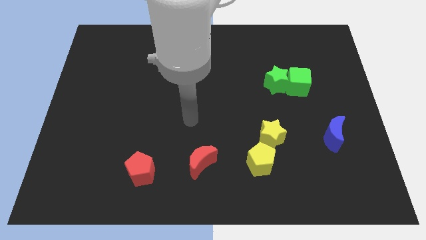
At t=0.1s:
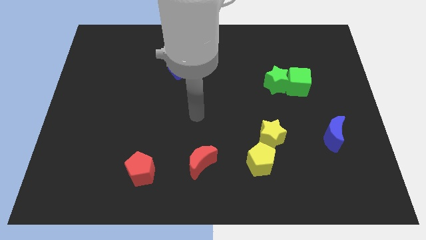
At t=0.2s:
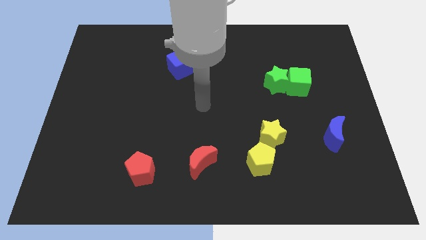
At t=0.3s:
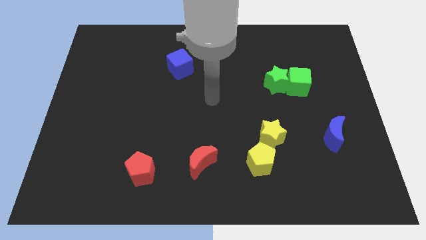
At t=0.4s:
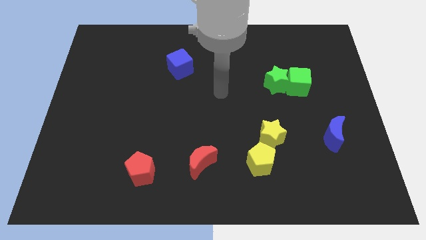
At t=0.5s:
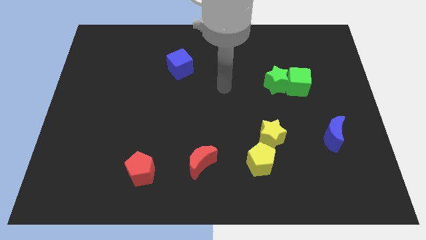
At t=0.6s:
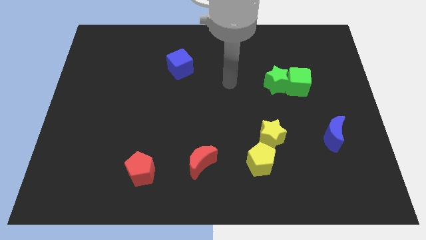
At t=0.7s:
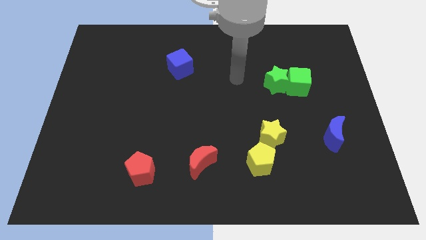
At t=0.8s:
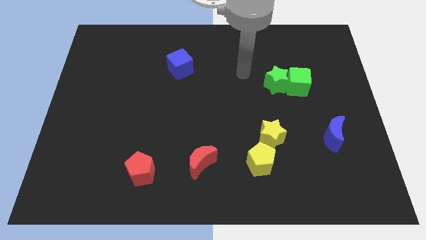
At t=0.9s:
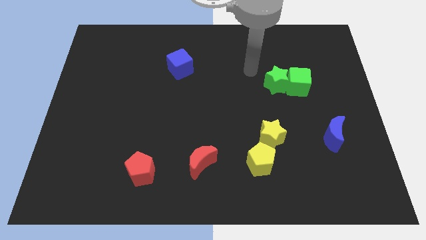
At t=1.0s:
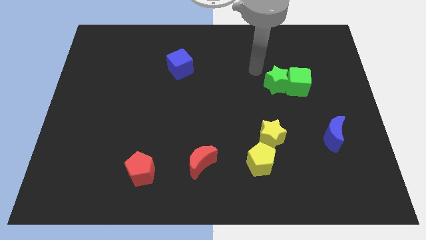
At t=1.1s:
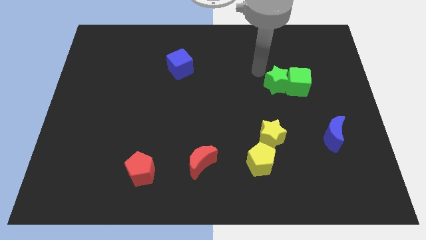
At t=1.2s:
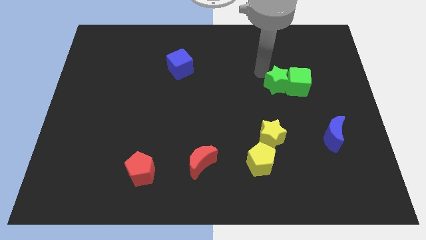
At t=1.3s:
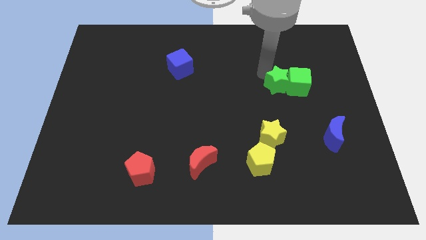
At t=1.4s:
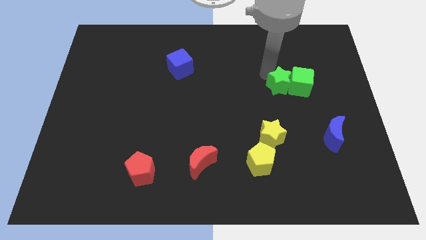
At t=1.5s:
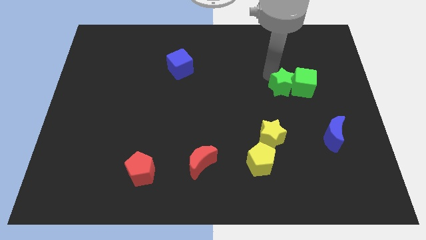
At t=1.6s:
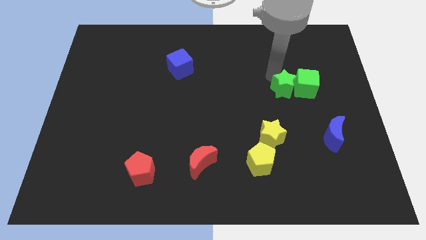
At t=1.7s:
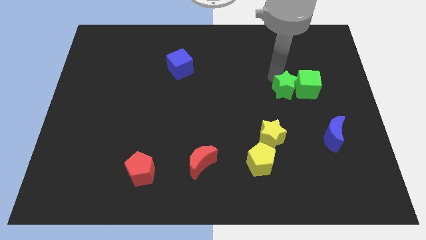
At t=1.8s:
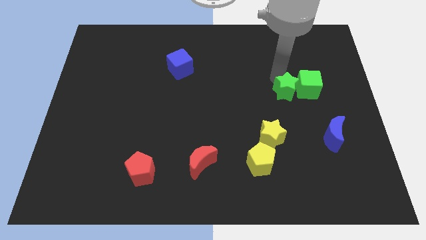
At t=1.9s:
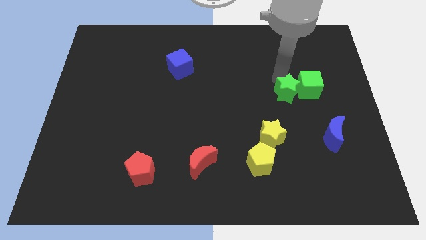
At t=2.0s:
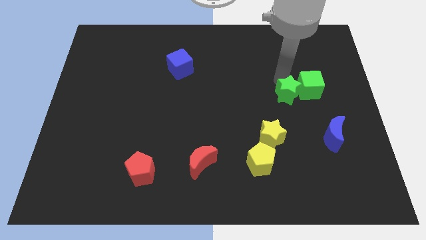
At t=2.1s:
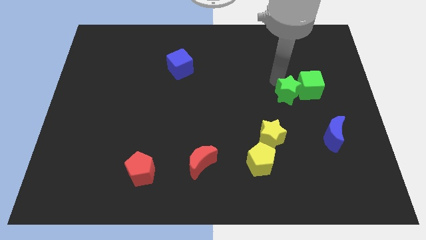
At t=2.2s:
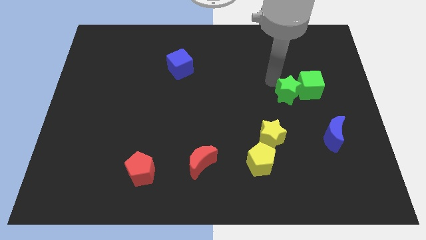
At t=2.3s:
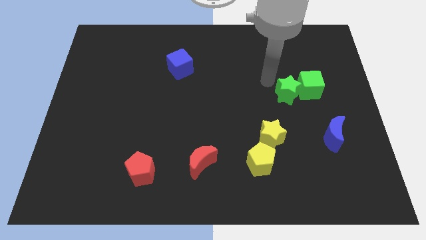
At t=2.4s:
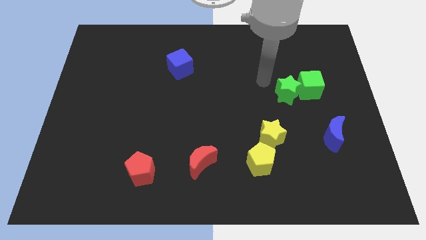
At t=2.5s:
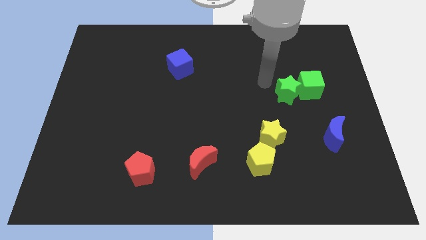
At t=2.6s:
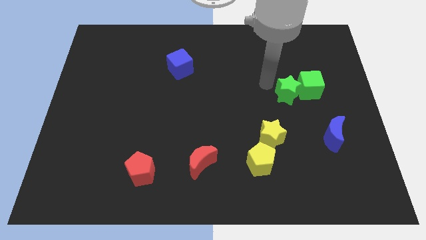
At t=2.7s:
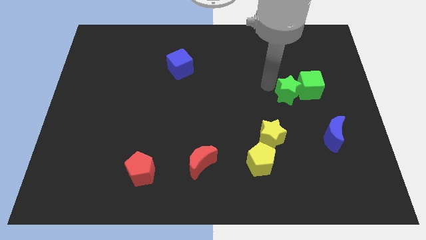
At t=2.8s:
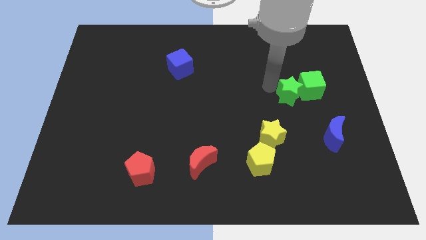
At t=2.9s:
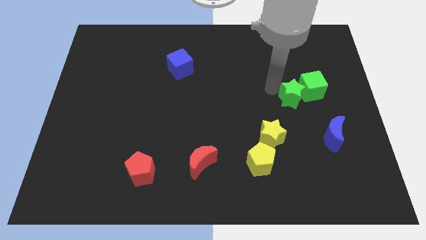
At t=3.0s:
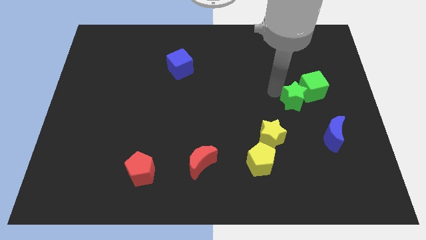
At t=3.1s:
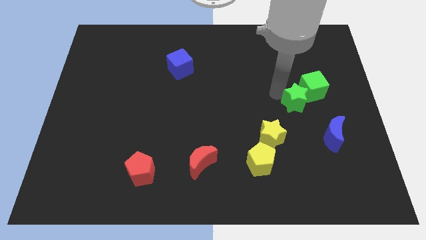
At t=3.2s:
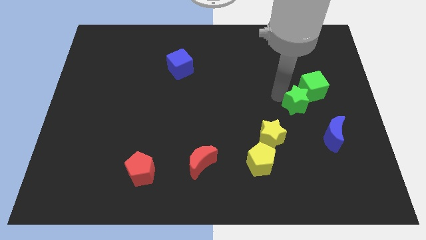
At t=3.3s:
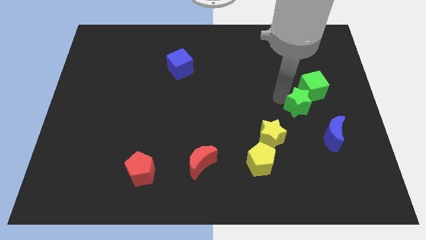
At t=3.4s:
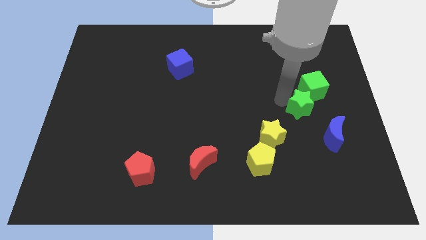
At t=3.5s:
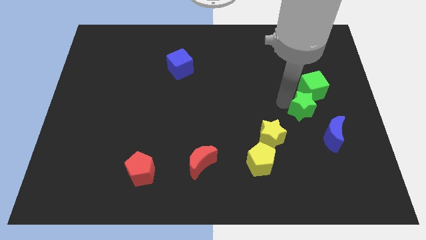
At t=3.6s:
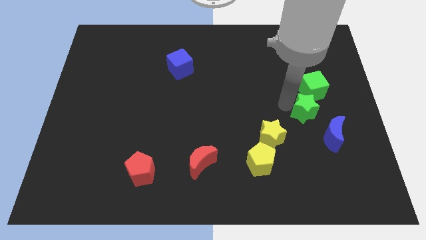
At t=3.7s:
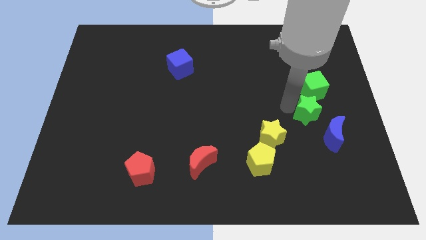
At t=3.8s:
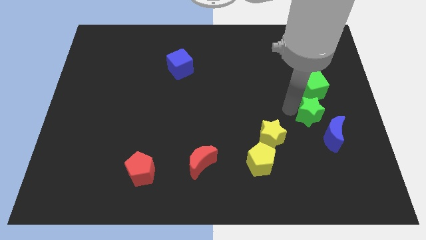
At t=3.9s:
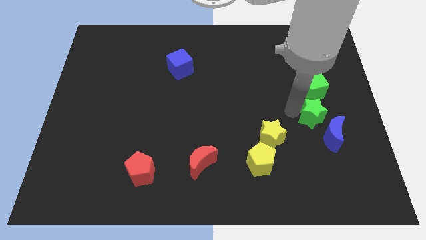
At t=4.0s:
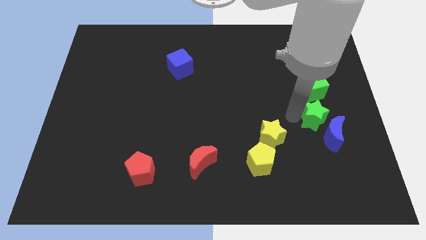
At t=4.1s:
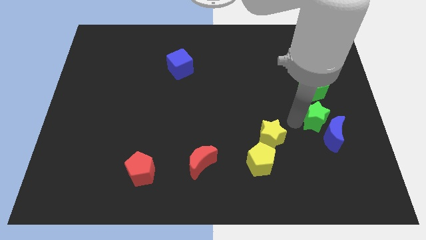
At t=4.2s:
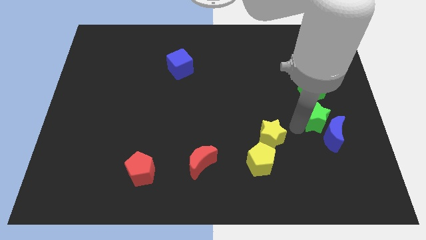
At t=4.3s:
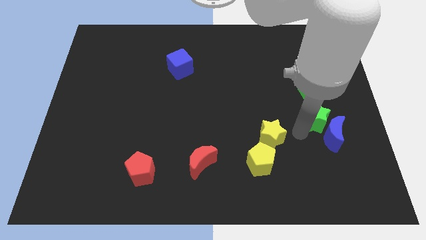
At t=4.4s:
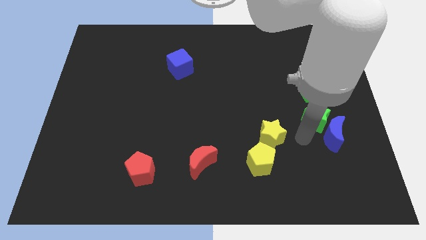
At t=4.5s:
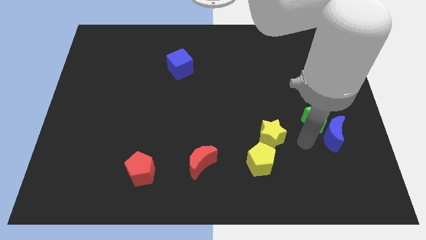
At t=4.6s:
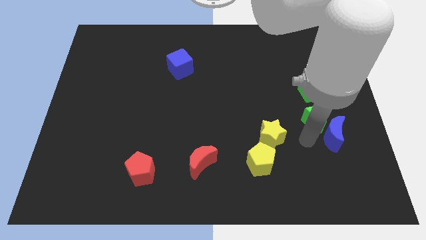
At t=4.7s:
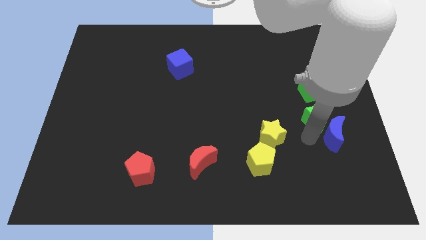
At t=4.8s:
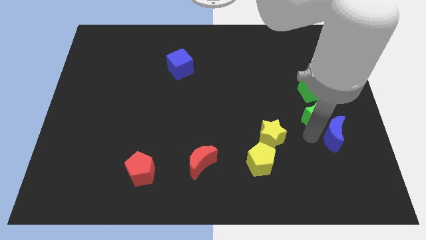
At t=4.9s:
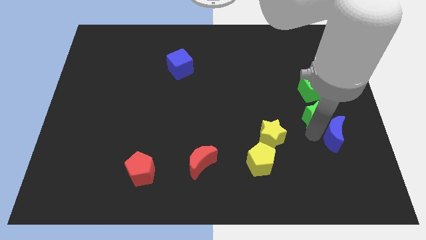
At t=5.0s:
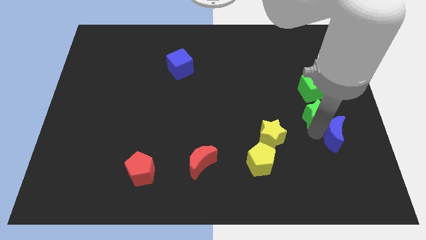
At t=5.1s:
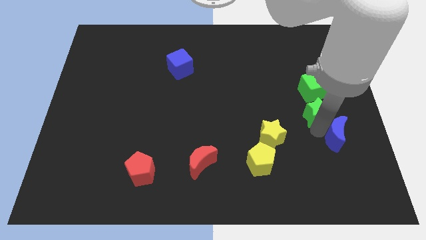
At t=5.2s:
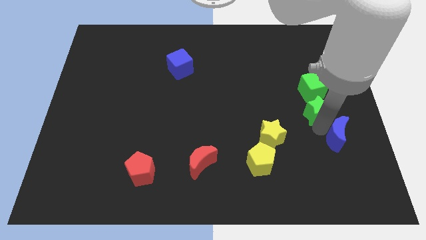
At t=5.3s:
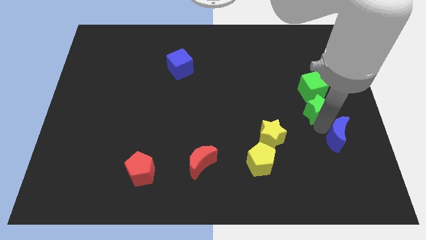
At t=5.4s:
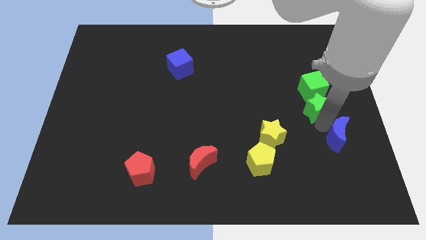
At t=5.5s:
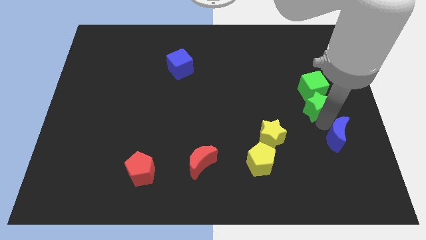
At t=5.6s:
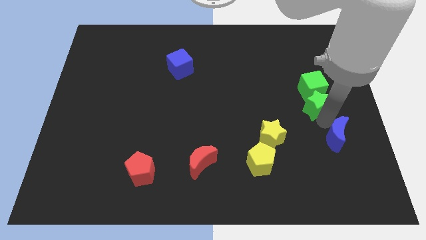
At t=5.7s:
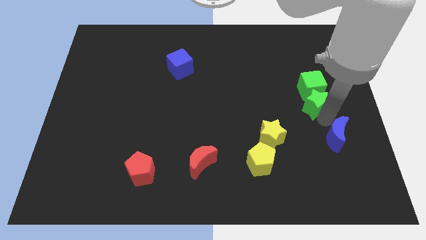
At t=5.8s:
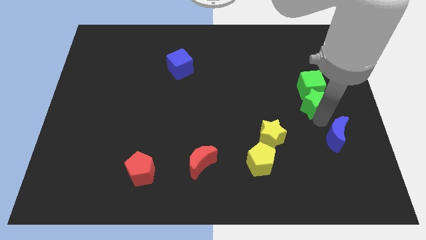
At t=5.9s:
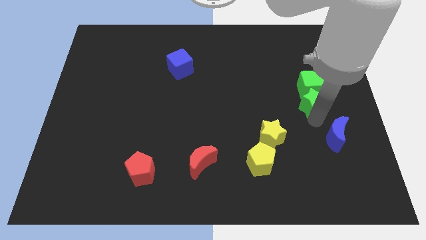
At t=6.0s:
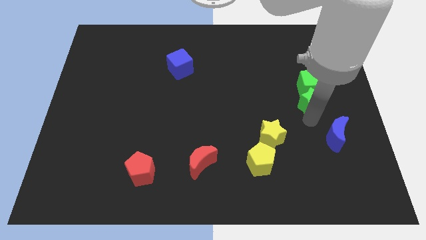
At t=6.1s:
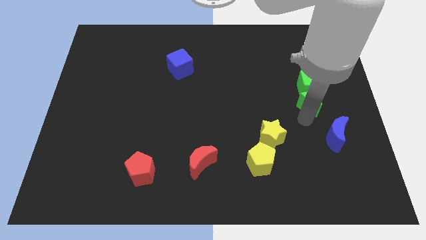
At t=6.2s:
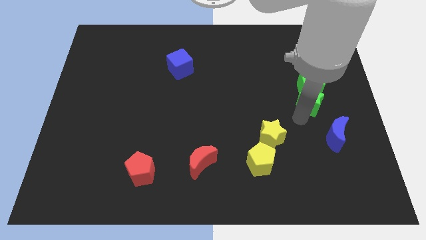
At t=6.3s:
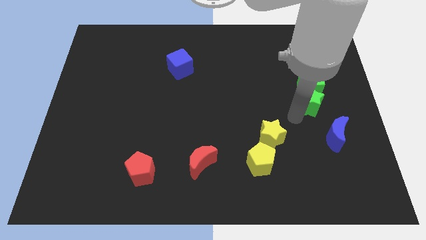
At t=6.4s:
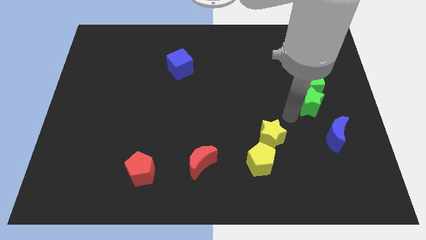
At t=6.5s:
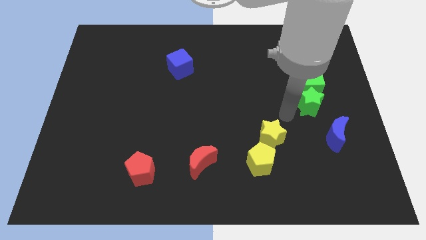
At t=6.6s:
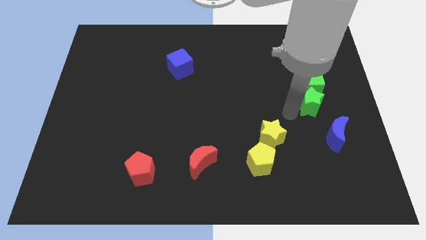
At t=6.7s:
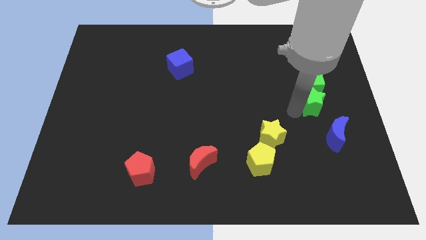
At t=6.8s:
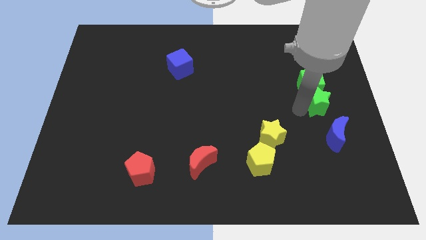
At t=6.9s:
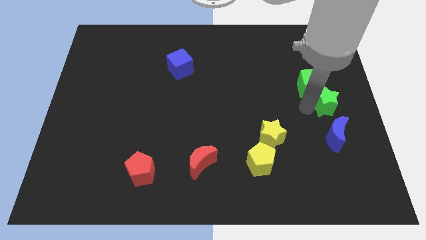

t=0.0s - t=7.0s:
push the green star to the right side
